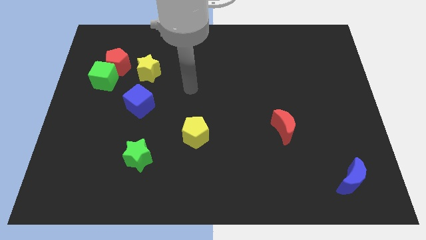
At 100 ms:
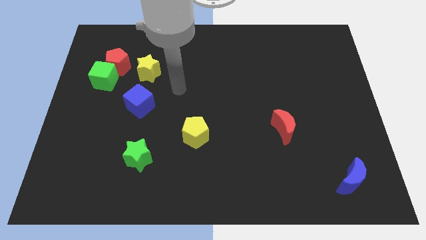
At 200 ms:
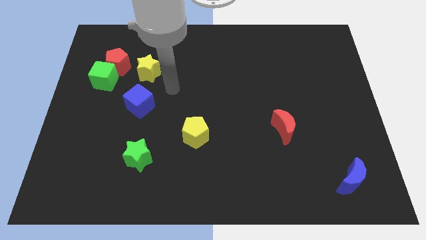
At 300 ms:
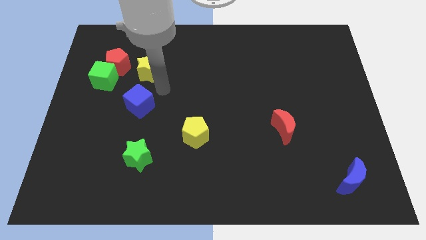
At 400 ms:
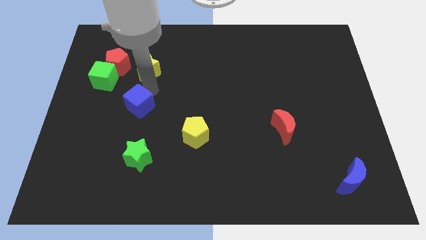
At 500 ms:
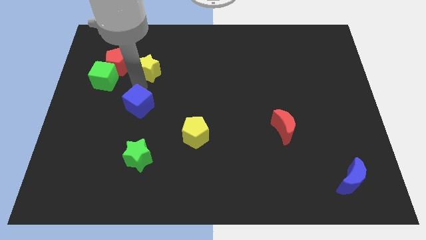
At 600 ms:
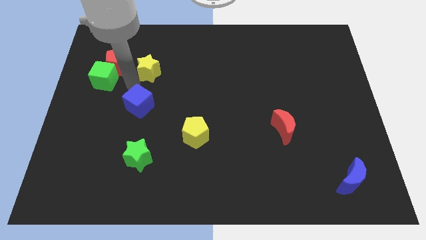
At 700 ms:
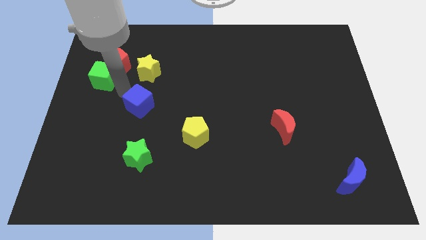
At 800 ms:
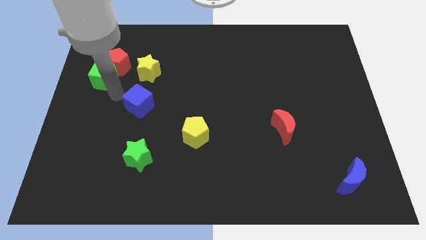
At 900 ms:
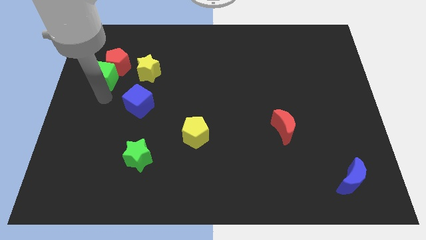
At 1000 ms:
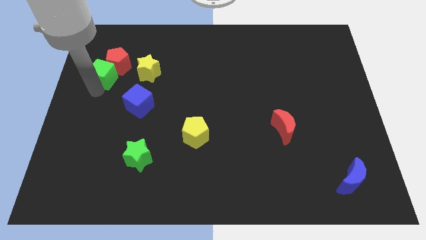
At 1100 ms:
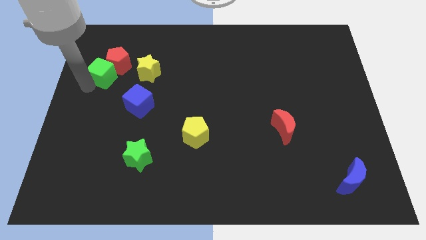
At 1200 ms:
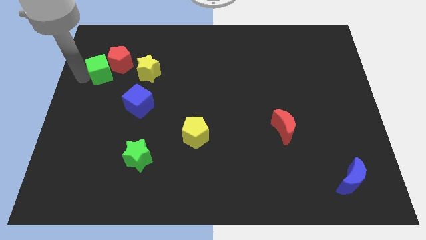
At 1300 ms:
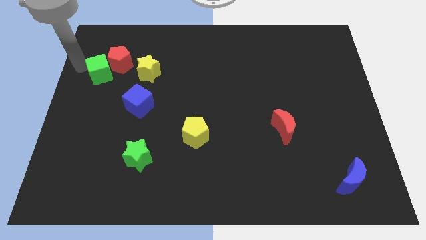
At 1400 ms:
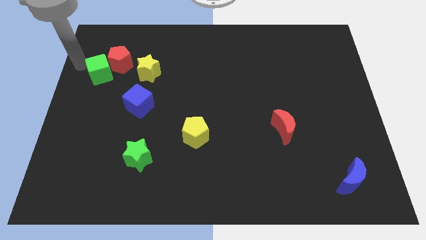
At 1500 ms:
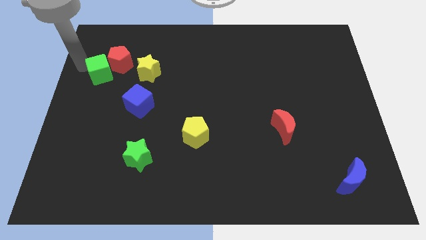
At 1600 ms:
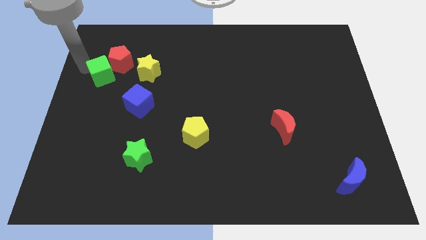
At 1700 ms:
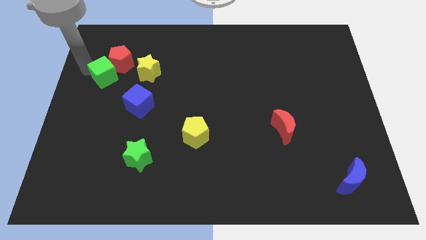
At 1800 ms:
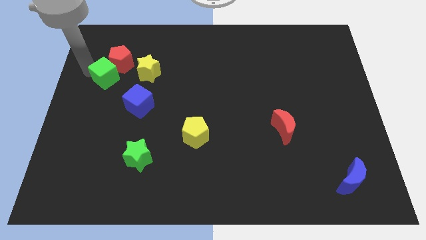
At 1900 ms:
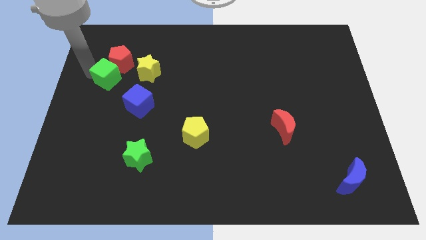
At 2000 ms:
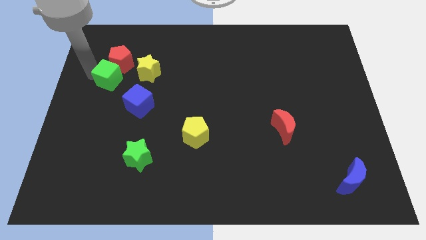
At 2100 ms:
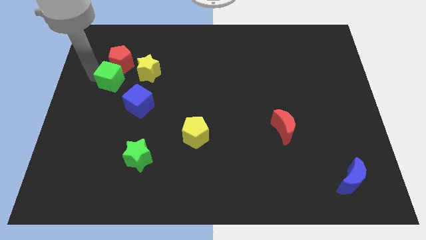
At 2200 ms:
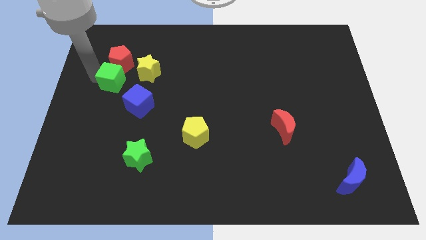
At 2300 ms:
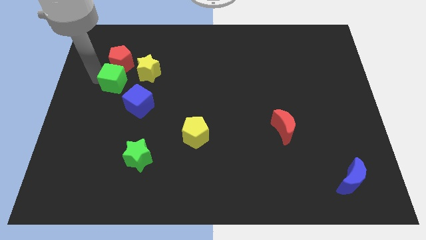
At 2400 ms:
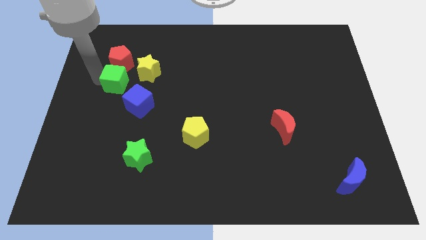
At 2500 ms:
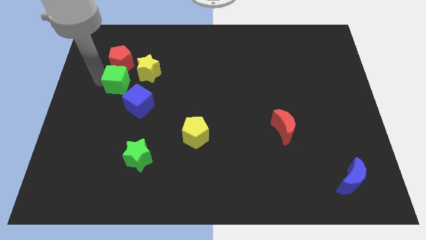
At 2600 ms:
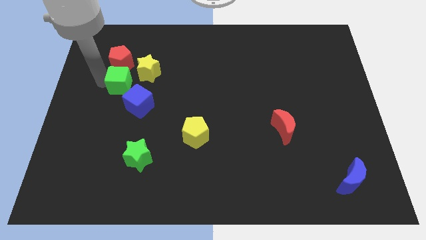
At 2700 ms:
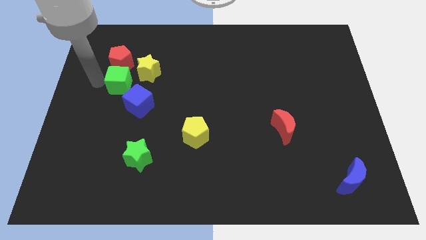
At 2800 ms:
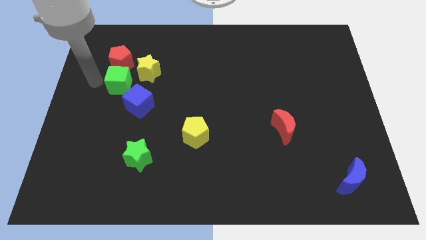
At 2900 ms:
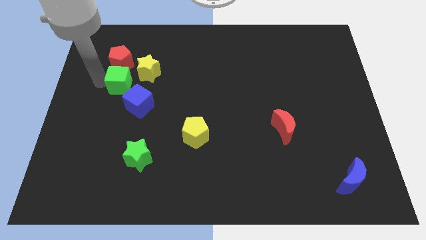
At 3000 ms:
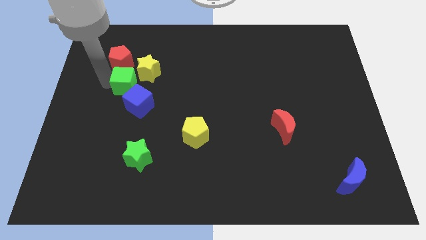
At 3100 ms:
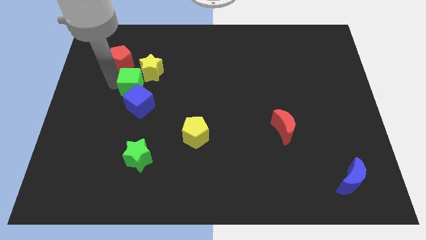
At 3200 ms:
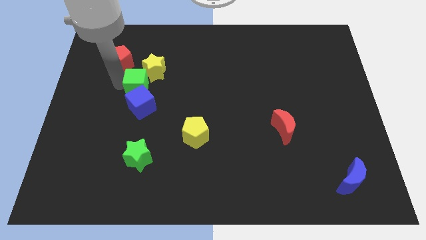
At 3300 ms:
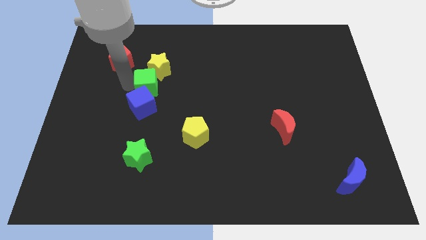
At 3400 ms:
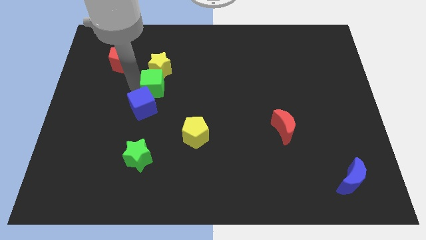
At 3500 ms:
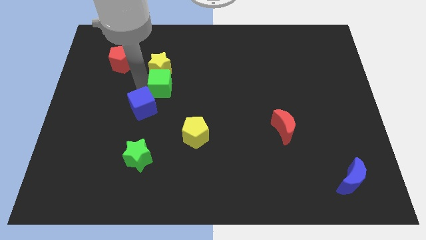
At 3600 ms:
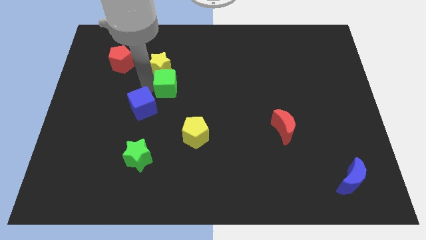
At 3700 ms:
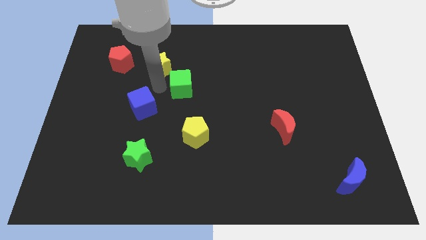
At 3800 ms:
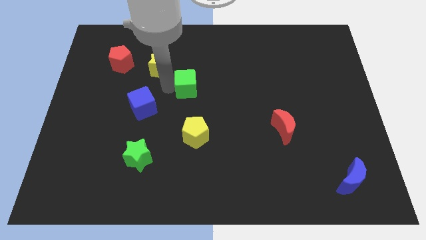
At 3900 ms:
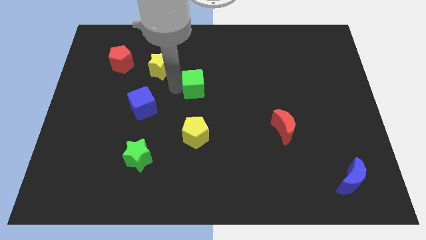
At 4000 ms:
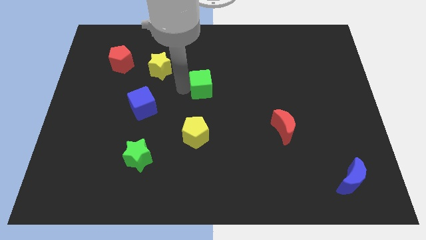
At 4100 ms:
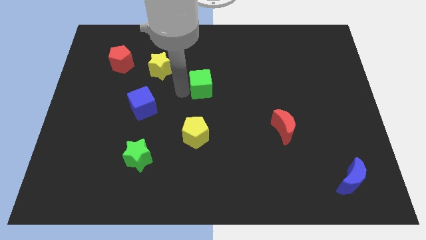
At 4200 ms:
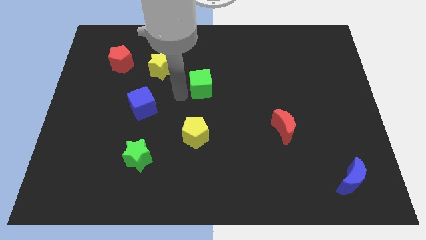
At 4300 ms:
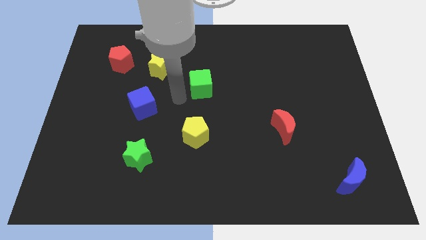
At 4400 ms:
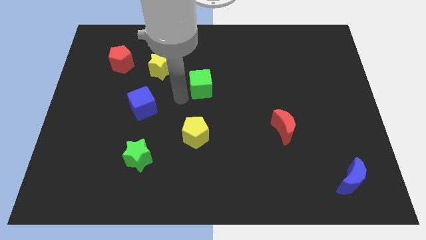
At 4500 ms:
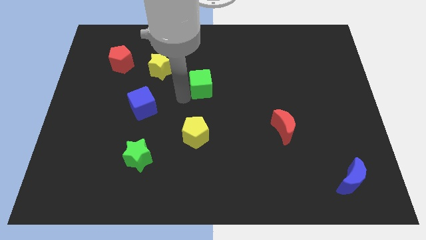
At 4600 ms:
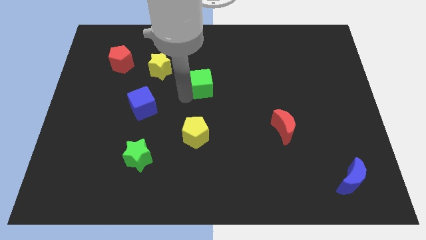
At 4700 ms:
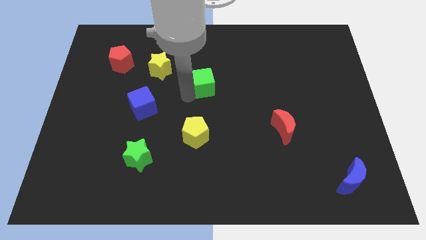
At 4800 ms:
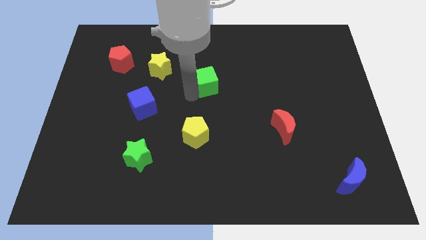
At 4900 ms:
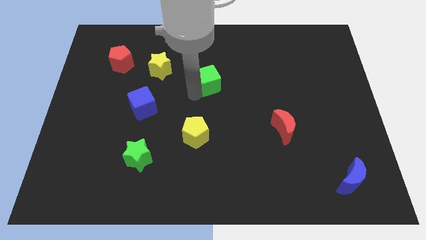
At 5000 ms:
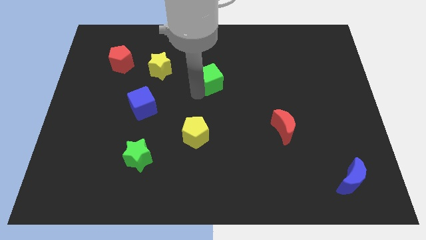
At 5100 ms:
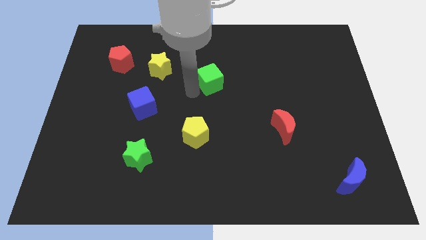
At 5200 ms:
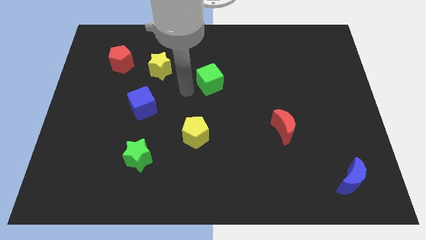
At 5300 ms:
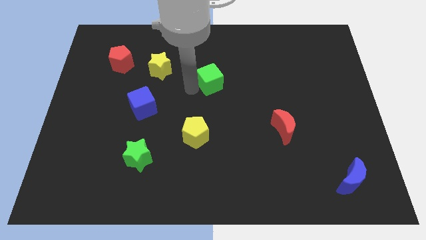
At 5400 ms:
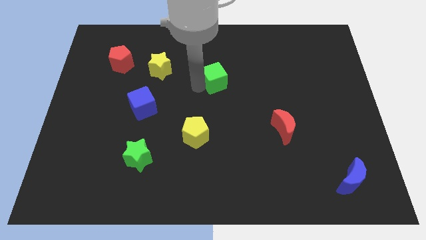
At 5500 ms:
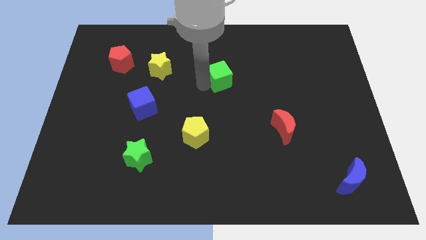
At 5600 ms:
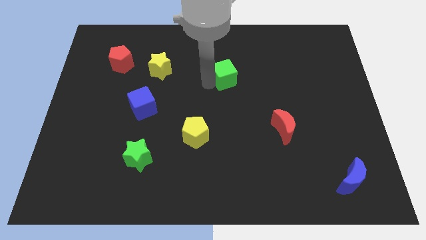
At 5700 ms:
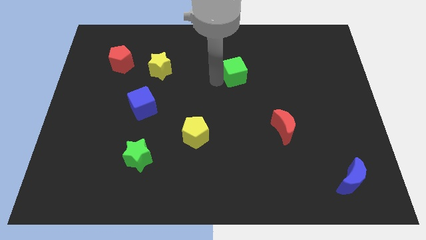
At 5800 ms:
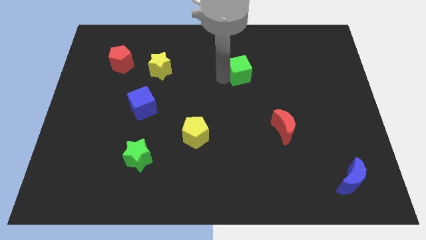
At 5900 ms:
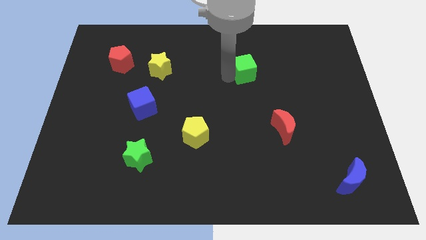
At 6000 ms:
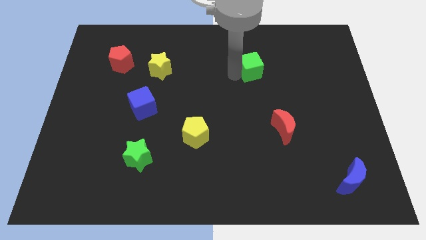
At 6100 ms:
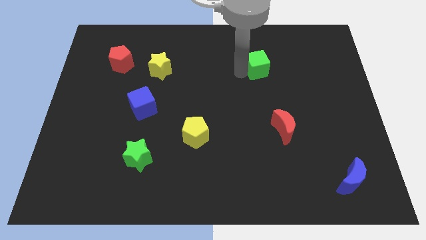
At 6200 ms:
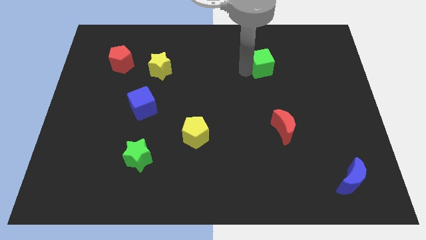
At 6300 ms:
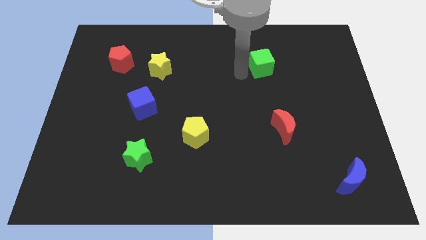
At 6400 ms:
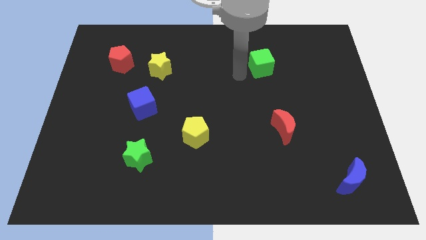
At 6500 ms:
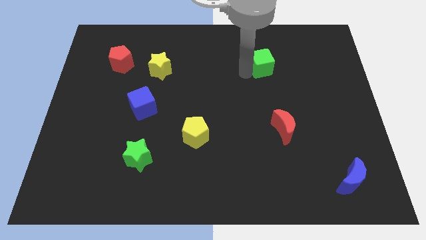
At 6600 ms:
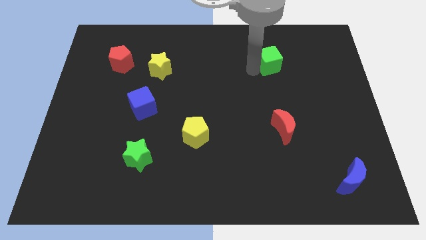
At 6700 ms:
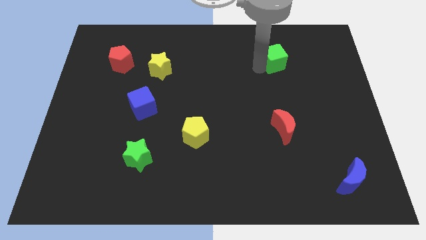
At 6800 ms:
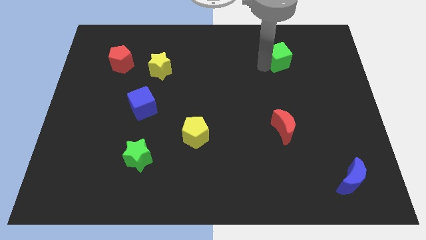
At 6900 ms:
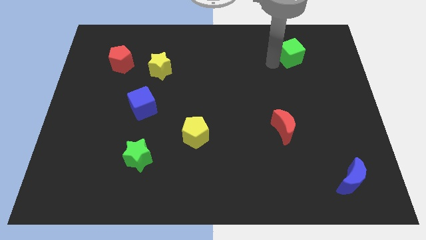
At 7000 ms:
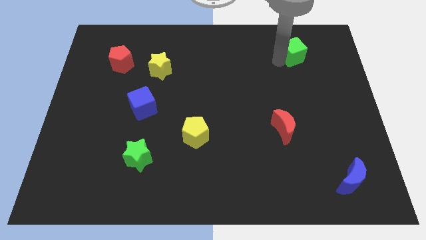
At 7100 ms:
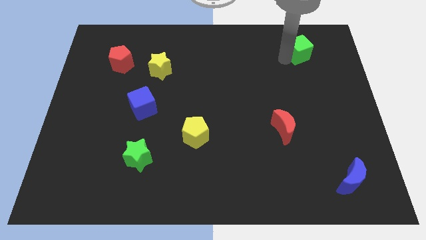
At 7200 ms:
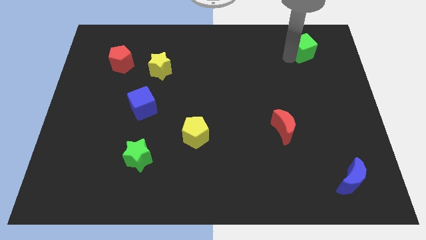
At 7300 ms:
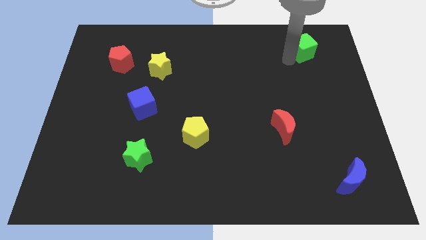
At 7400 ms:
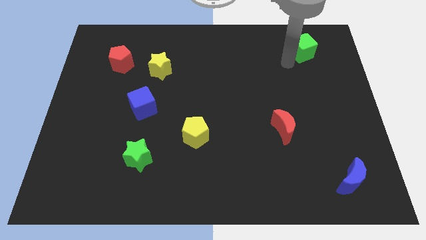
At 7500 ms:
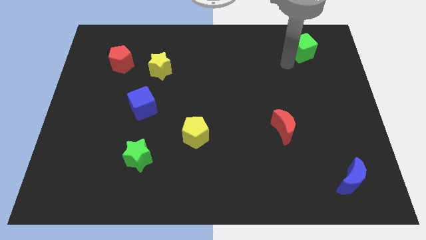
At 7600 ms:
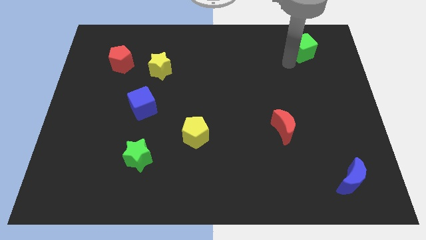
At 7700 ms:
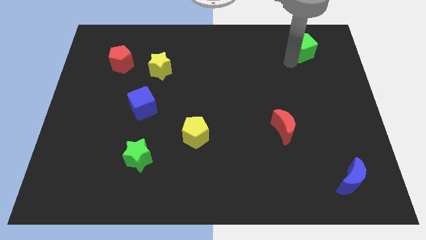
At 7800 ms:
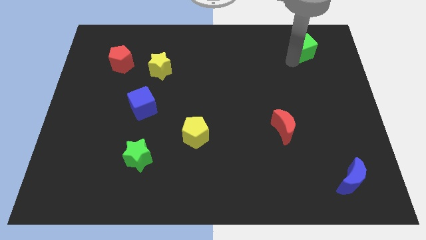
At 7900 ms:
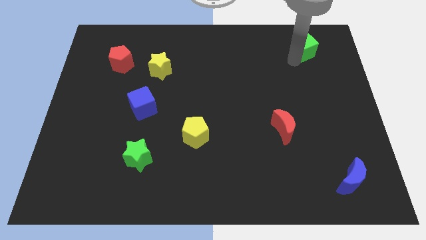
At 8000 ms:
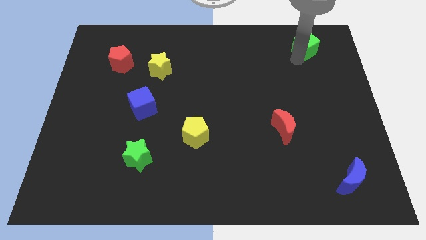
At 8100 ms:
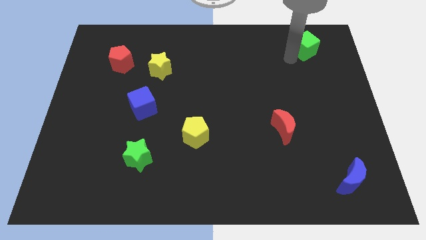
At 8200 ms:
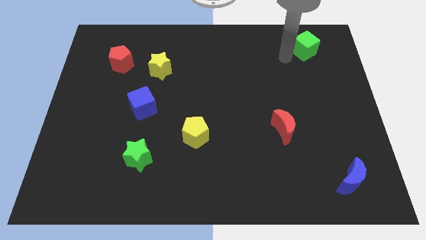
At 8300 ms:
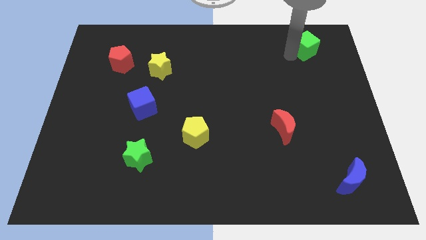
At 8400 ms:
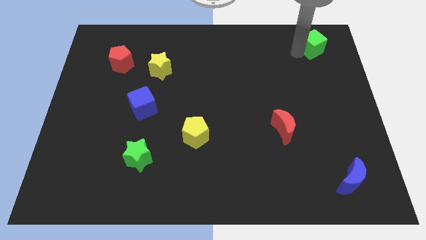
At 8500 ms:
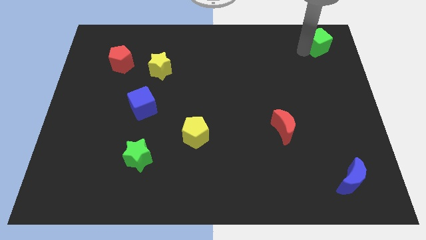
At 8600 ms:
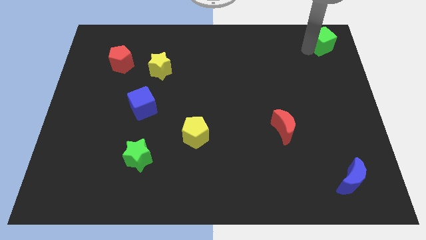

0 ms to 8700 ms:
put the green cube to the top right of the board
